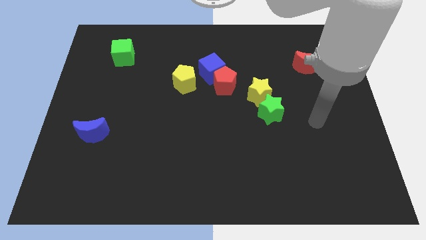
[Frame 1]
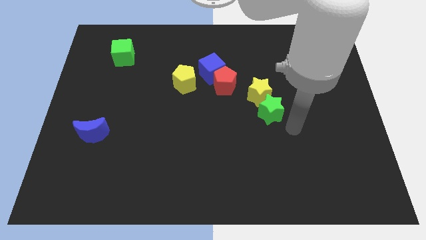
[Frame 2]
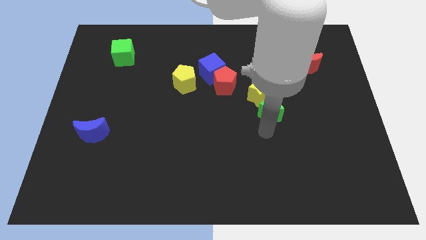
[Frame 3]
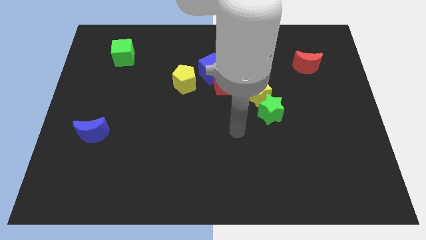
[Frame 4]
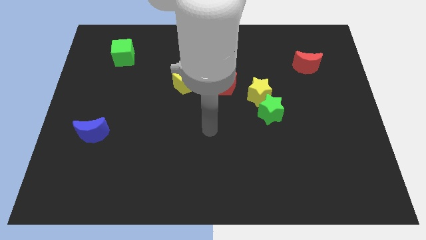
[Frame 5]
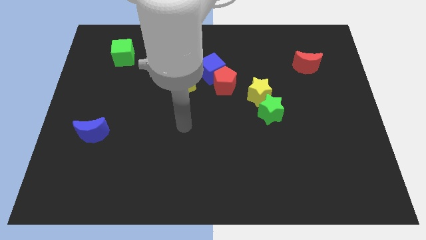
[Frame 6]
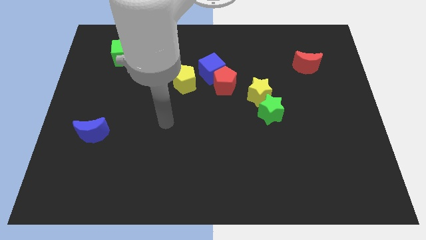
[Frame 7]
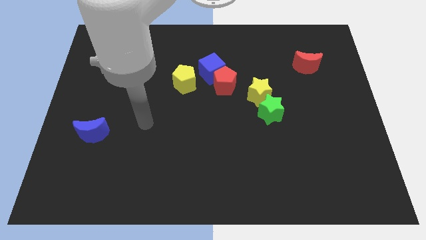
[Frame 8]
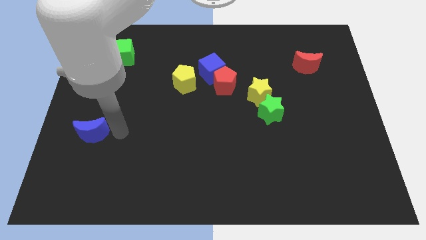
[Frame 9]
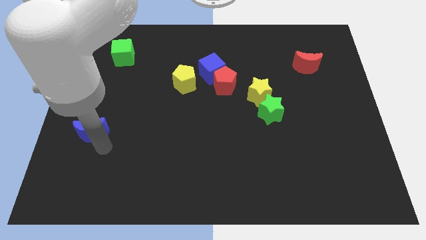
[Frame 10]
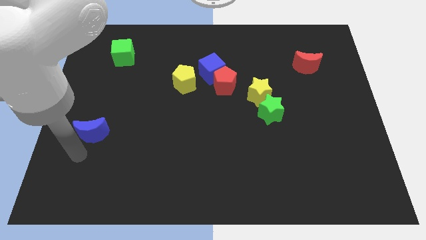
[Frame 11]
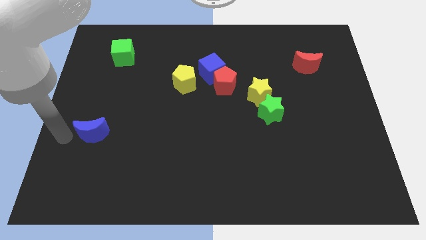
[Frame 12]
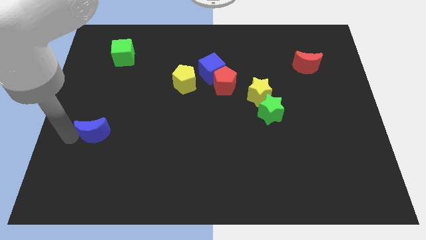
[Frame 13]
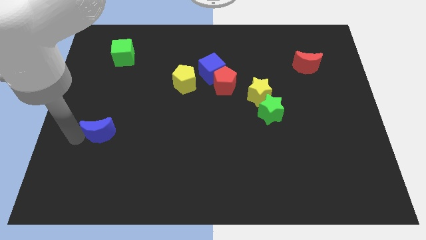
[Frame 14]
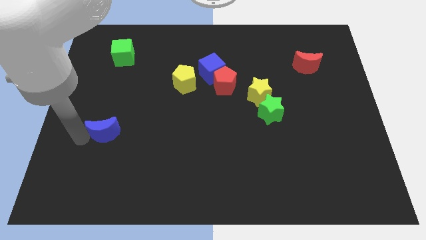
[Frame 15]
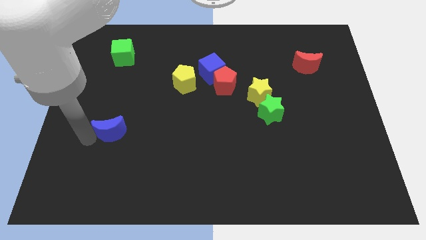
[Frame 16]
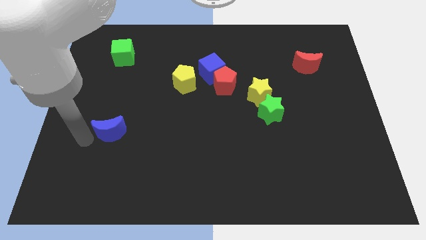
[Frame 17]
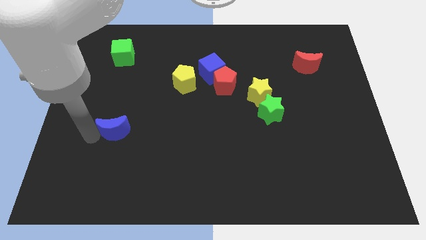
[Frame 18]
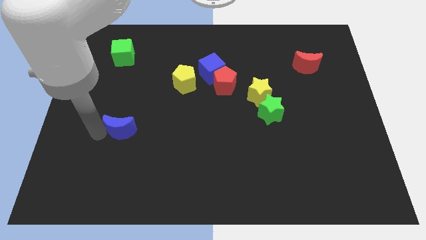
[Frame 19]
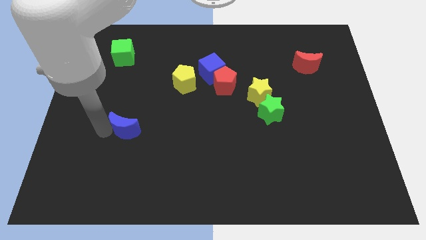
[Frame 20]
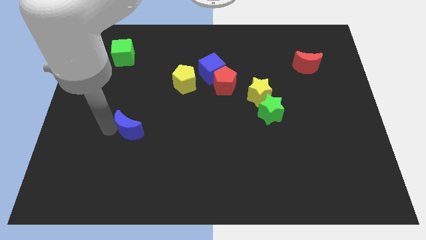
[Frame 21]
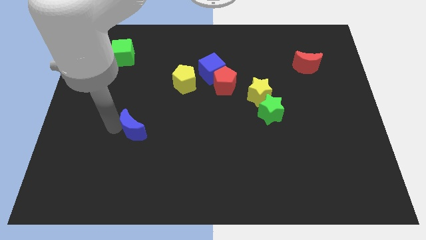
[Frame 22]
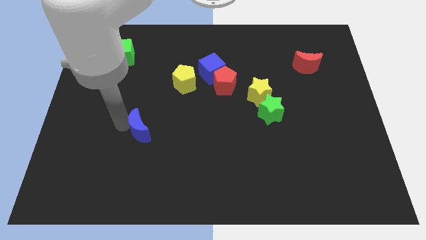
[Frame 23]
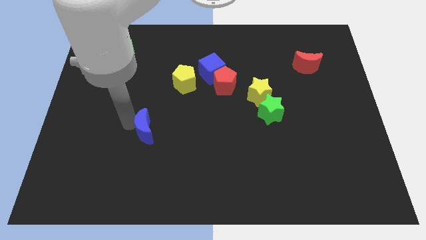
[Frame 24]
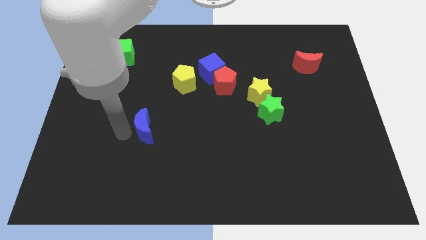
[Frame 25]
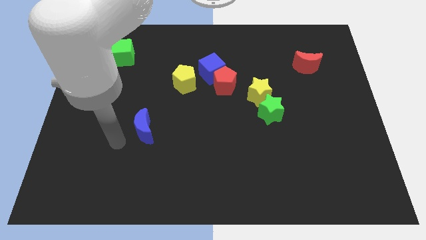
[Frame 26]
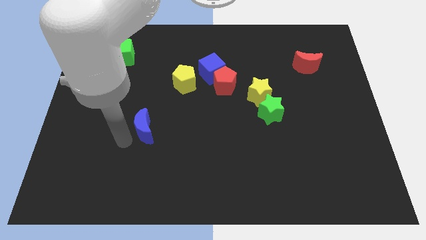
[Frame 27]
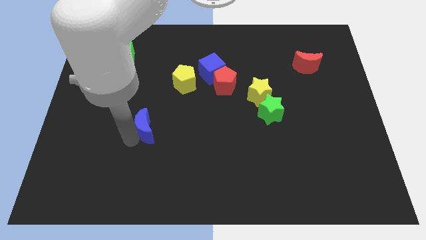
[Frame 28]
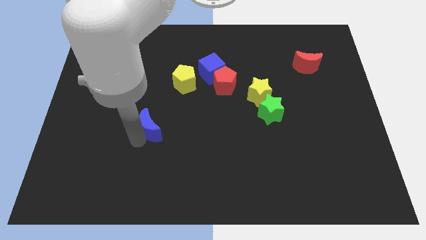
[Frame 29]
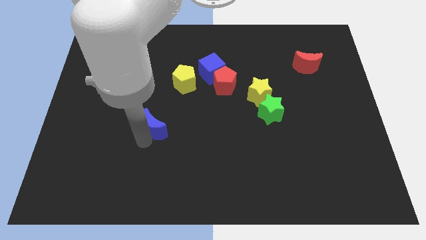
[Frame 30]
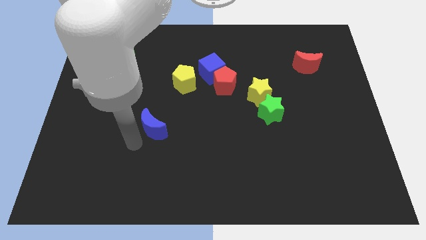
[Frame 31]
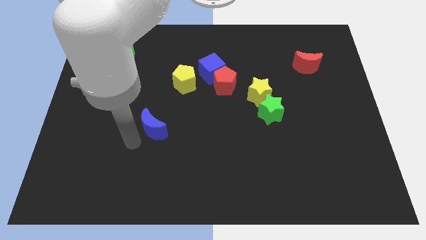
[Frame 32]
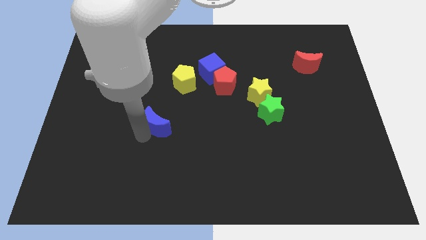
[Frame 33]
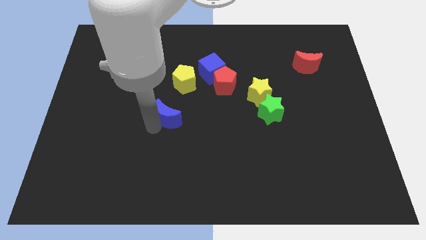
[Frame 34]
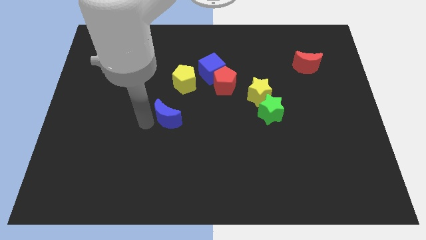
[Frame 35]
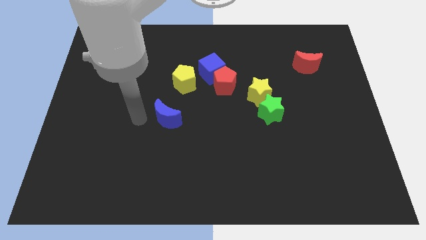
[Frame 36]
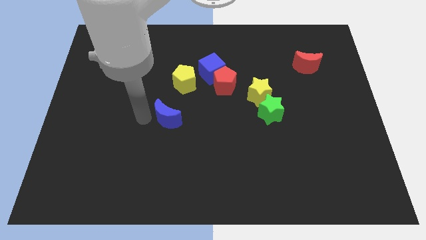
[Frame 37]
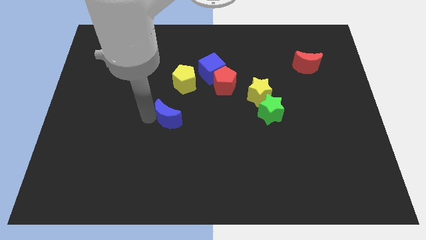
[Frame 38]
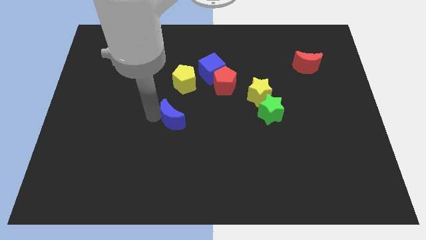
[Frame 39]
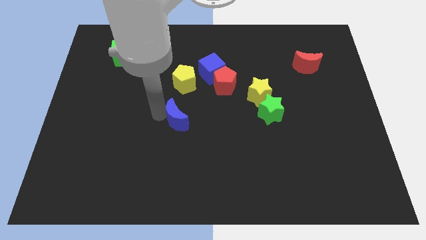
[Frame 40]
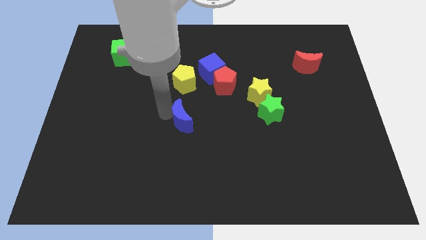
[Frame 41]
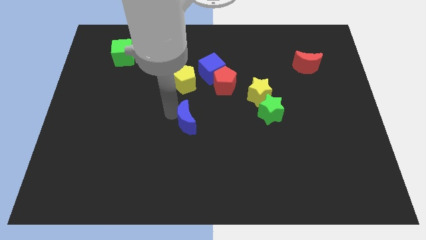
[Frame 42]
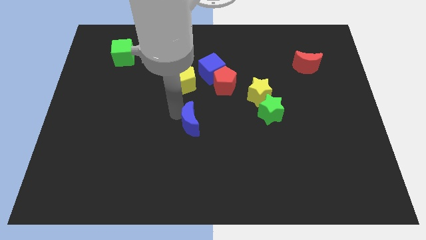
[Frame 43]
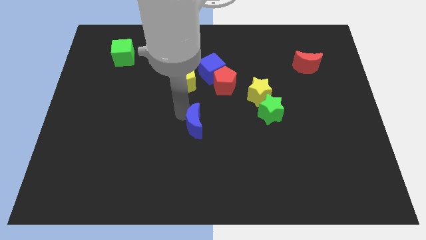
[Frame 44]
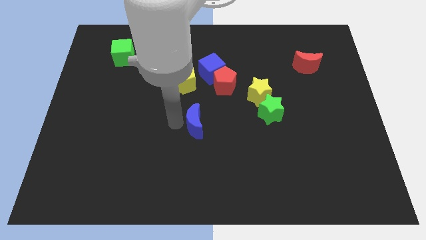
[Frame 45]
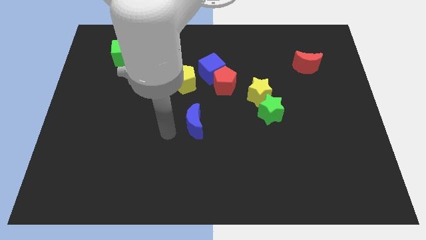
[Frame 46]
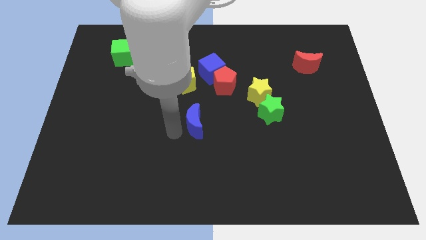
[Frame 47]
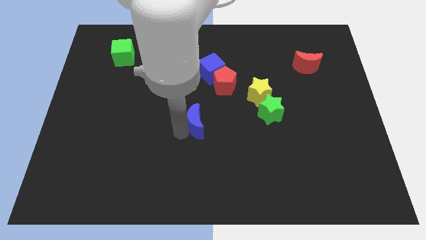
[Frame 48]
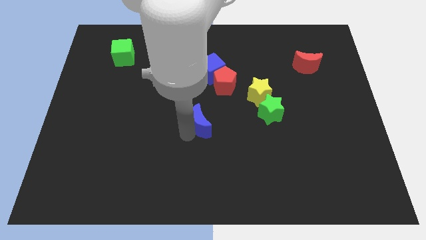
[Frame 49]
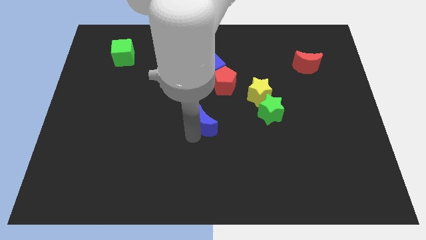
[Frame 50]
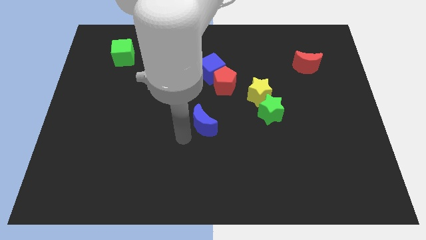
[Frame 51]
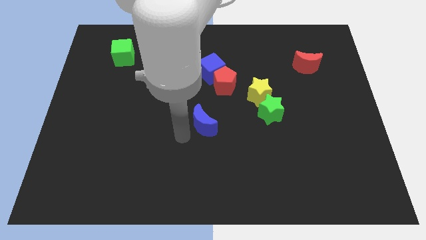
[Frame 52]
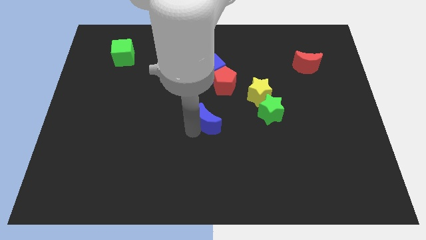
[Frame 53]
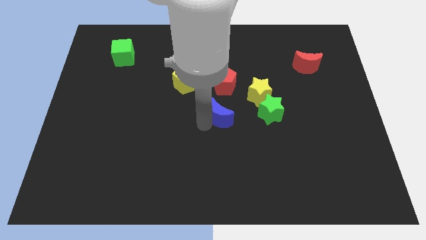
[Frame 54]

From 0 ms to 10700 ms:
slide the blue moon diagonally down and to the left of the yellow star

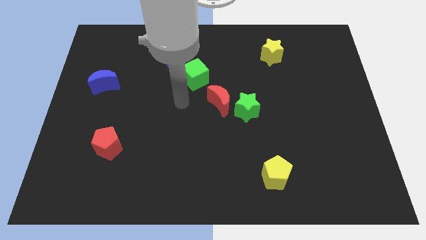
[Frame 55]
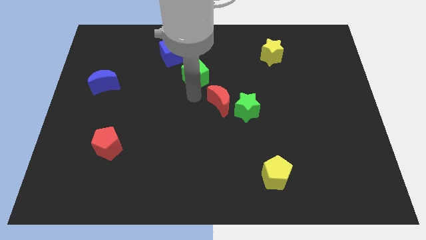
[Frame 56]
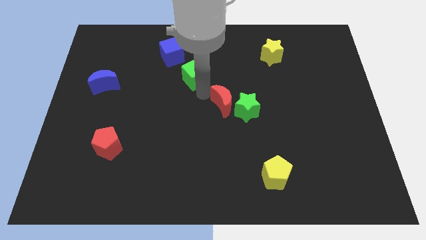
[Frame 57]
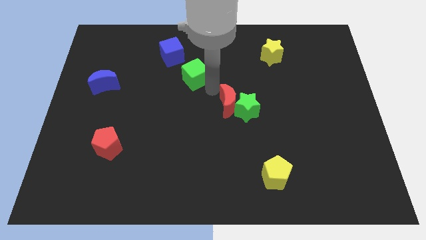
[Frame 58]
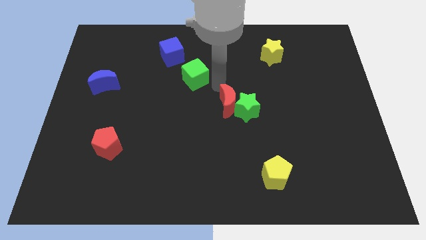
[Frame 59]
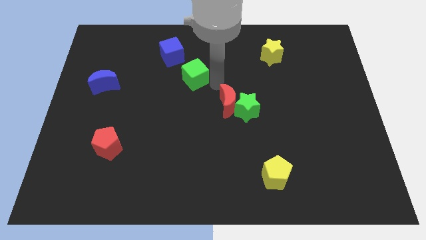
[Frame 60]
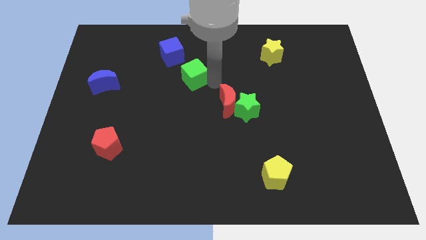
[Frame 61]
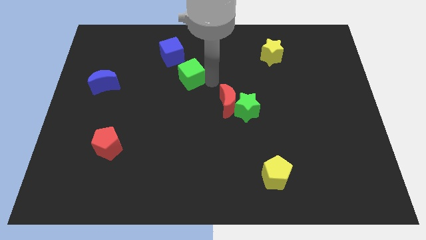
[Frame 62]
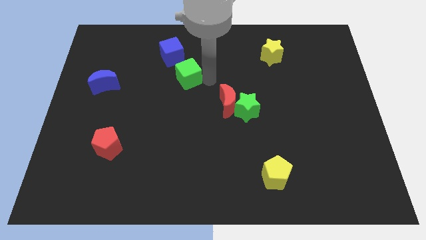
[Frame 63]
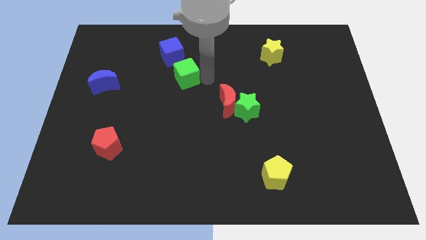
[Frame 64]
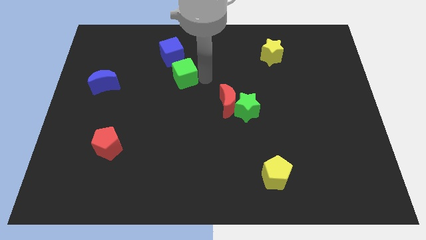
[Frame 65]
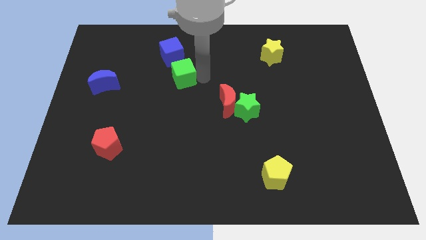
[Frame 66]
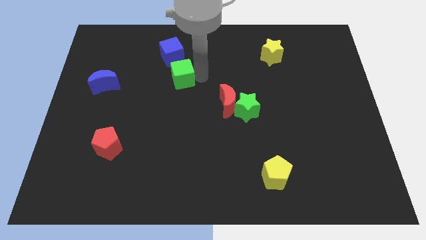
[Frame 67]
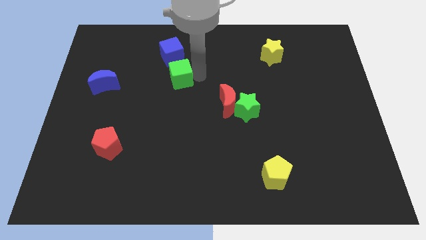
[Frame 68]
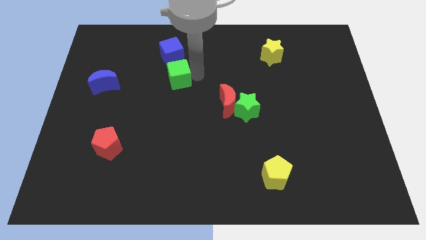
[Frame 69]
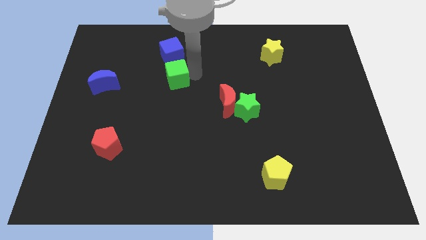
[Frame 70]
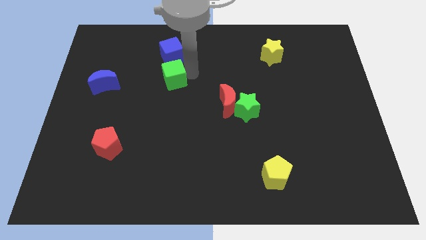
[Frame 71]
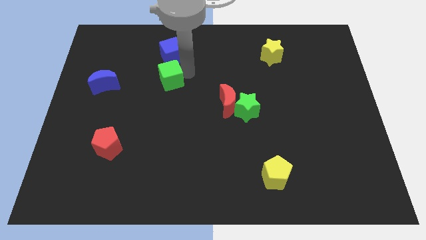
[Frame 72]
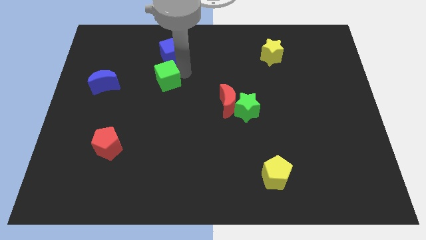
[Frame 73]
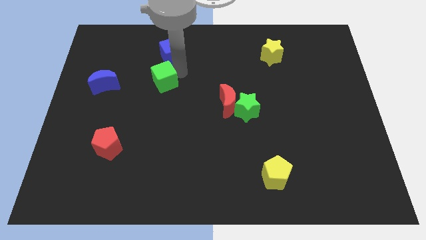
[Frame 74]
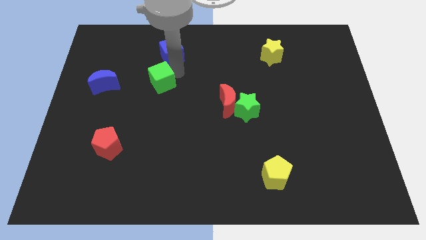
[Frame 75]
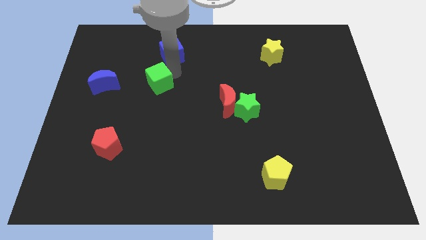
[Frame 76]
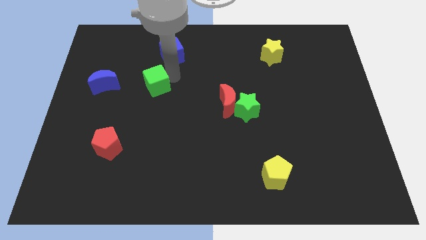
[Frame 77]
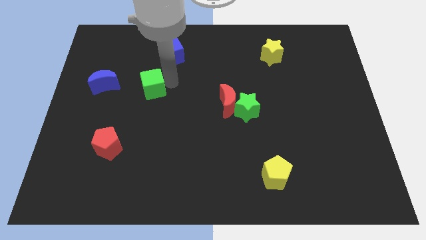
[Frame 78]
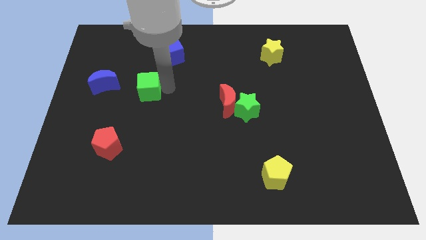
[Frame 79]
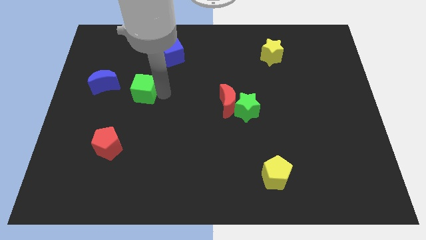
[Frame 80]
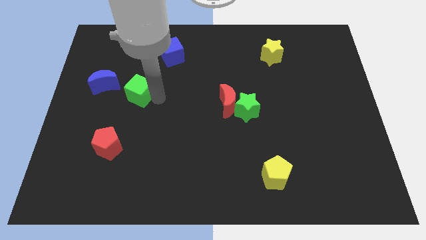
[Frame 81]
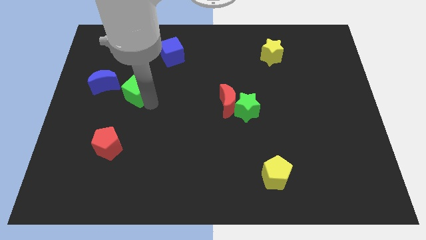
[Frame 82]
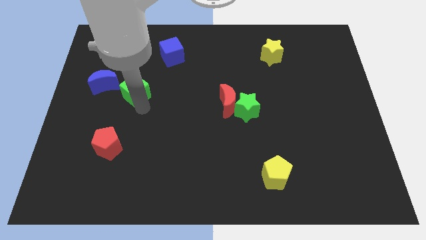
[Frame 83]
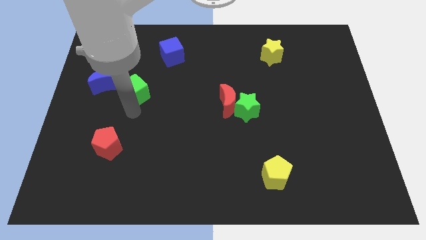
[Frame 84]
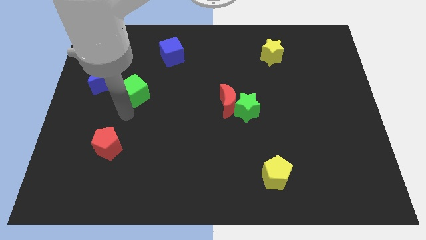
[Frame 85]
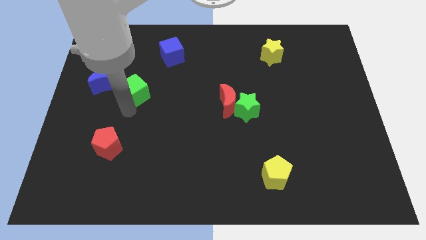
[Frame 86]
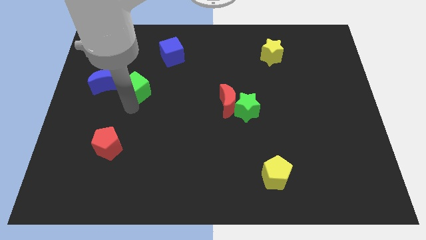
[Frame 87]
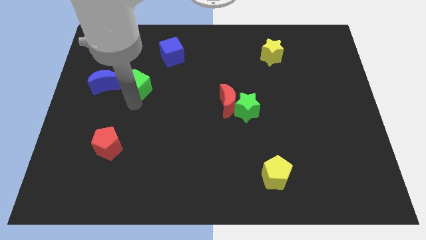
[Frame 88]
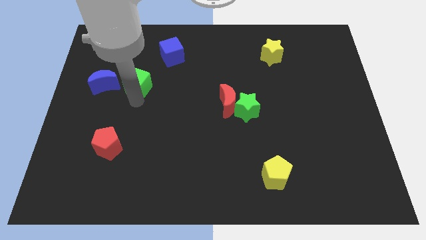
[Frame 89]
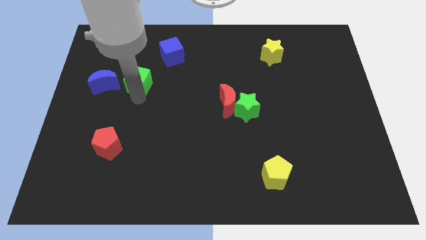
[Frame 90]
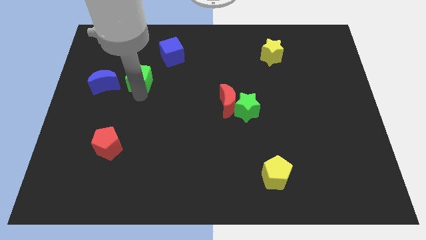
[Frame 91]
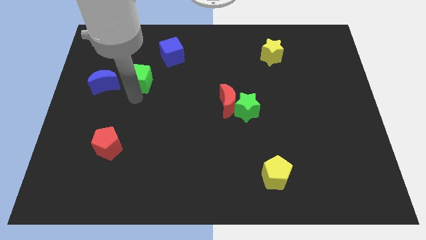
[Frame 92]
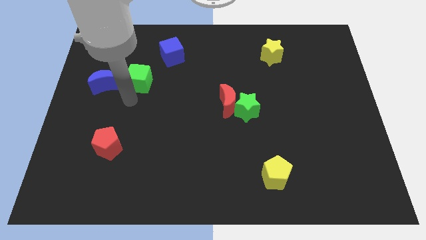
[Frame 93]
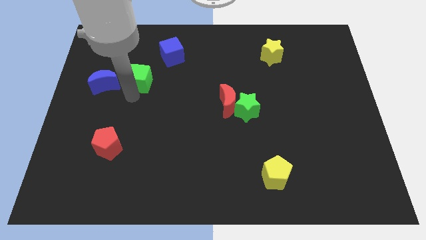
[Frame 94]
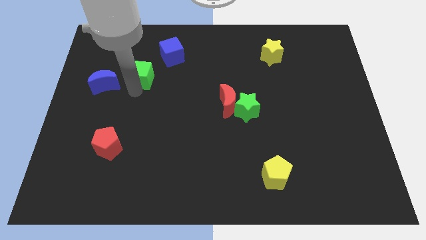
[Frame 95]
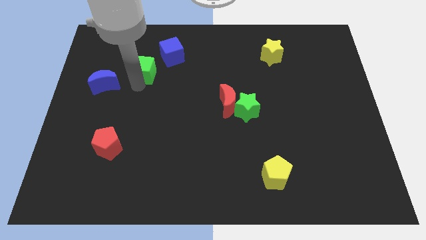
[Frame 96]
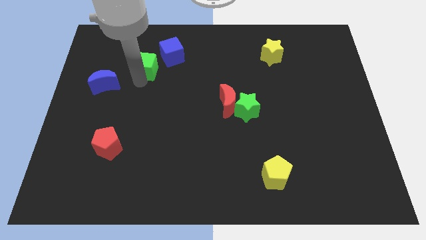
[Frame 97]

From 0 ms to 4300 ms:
slide the green cube left of the blue cube
